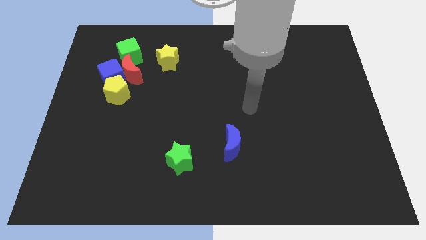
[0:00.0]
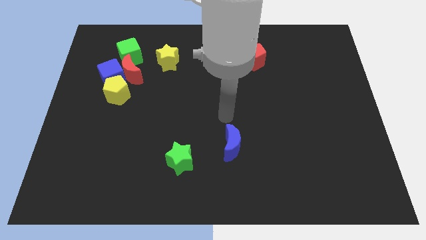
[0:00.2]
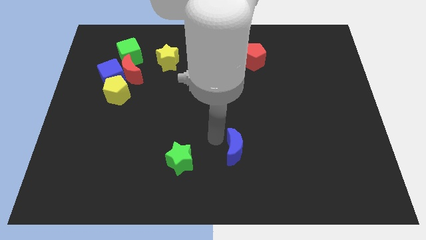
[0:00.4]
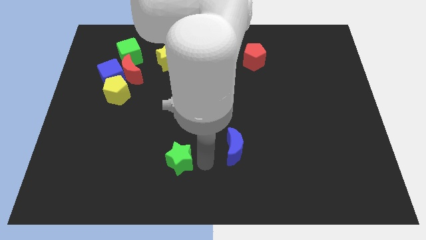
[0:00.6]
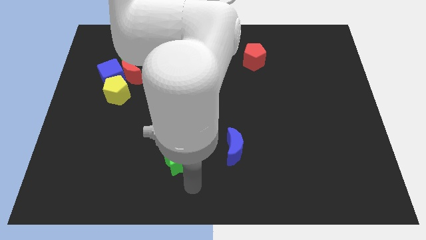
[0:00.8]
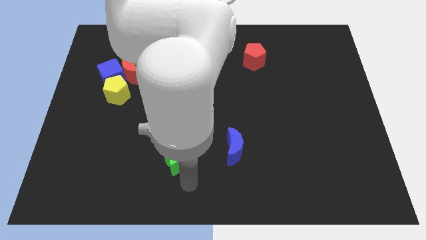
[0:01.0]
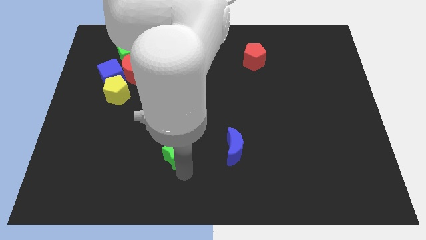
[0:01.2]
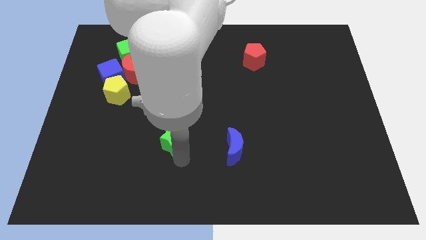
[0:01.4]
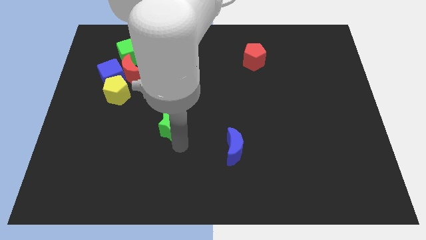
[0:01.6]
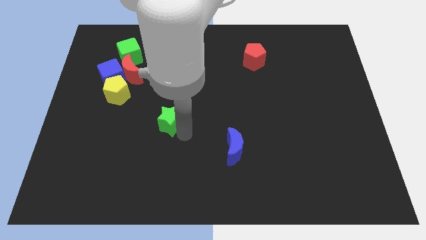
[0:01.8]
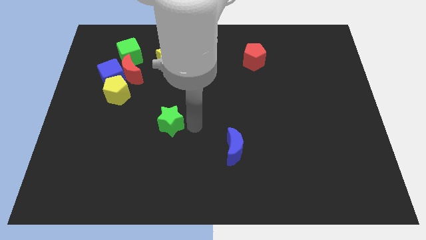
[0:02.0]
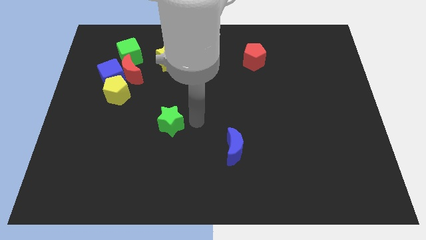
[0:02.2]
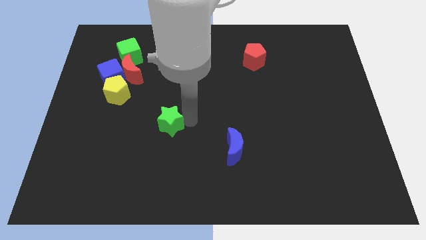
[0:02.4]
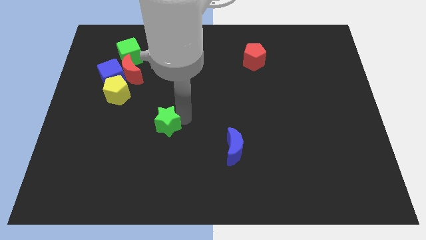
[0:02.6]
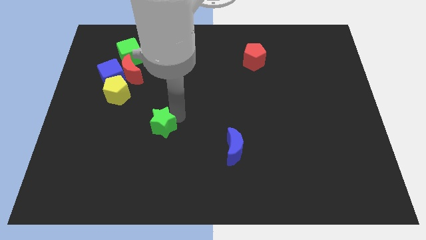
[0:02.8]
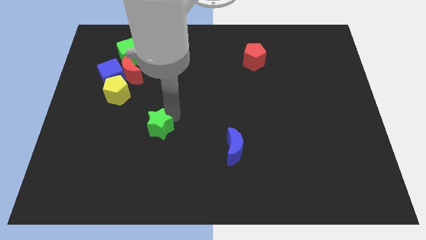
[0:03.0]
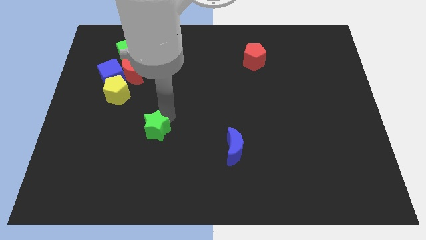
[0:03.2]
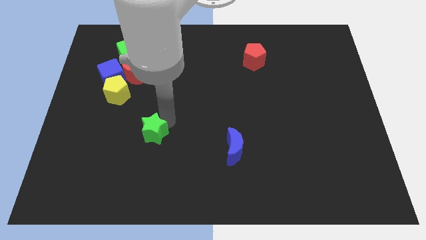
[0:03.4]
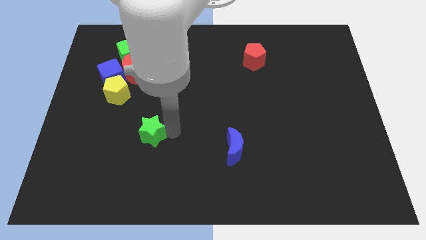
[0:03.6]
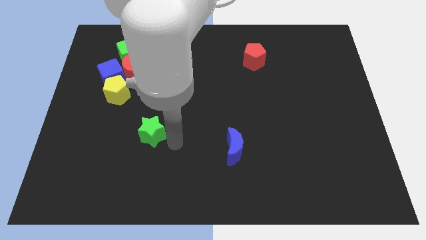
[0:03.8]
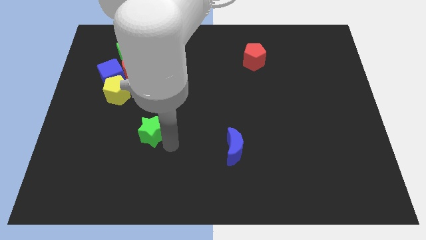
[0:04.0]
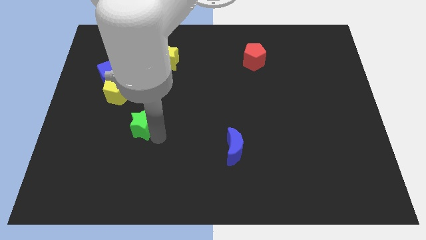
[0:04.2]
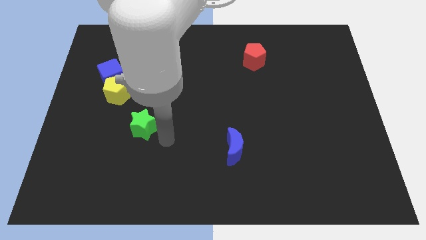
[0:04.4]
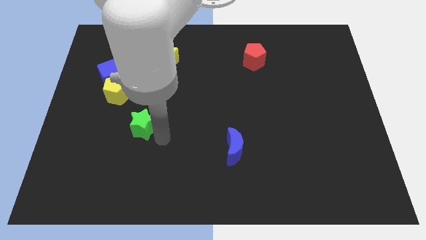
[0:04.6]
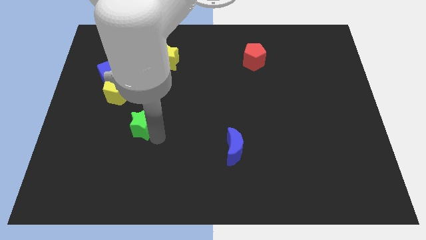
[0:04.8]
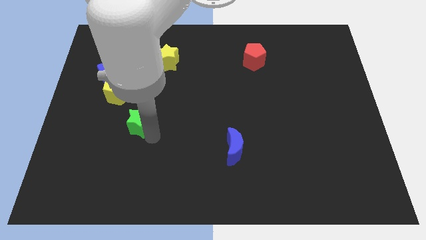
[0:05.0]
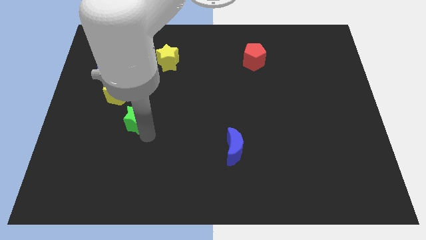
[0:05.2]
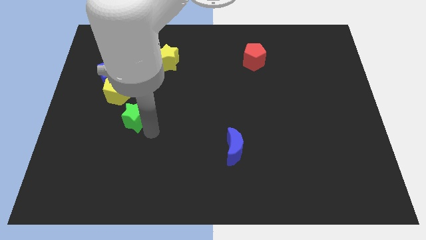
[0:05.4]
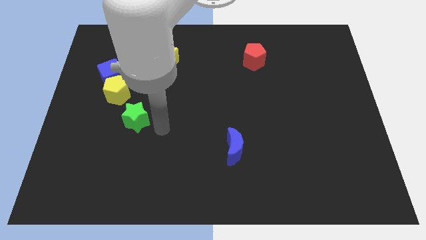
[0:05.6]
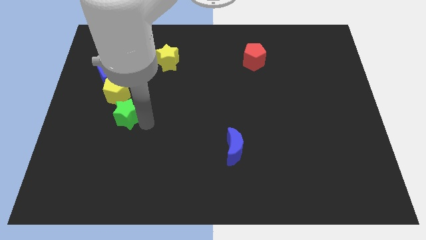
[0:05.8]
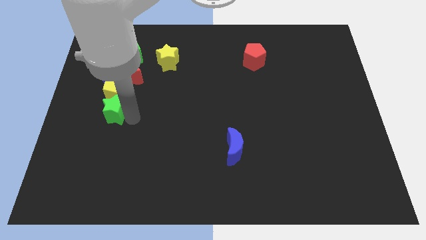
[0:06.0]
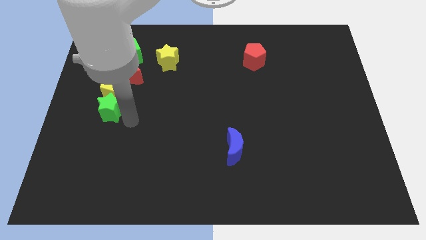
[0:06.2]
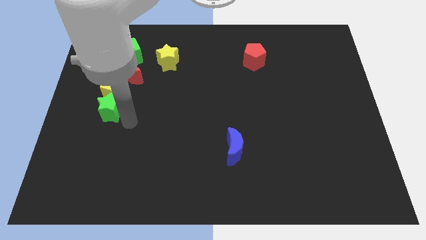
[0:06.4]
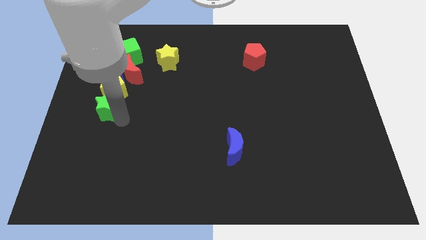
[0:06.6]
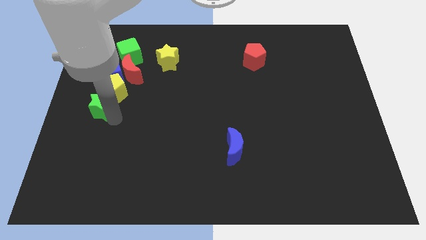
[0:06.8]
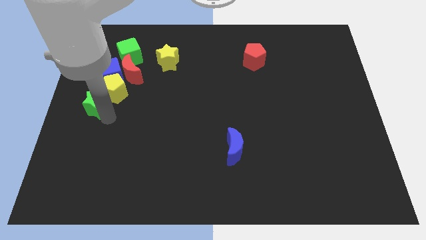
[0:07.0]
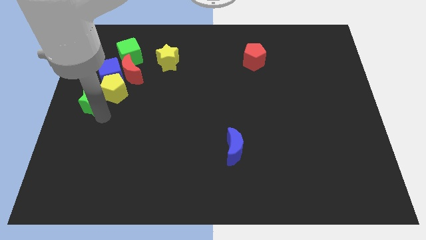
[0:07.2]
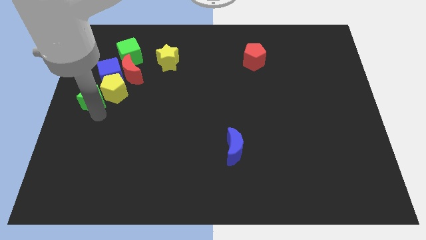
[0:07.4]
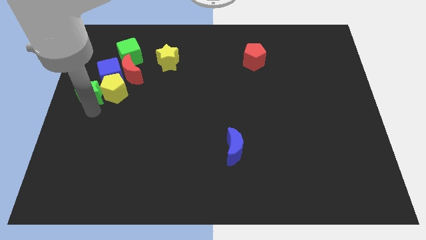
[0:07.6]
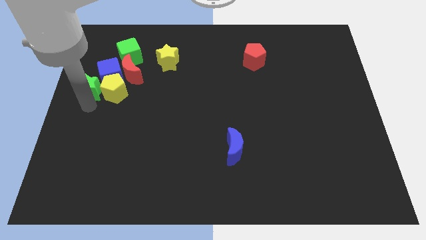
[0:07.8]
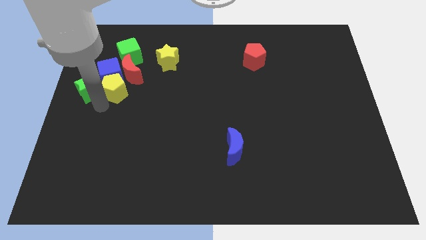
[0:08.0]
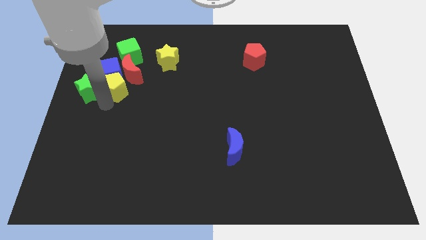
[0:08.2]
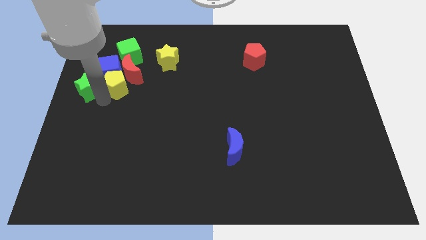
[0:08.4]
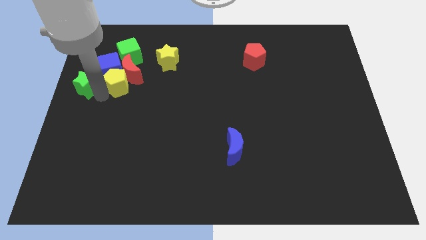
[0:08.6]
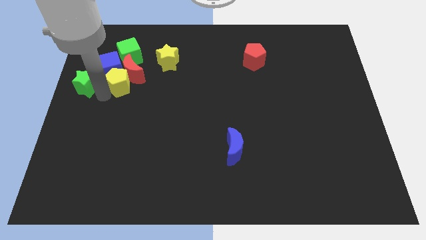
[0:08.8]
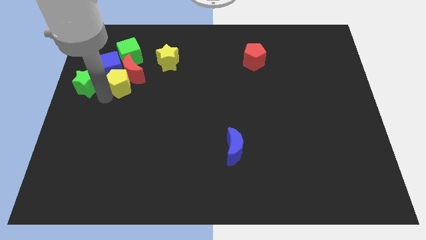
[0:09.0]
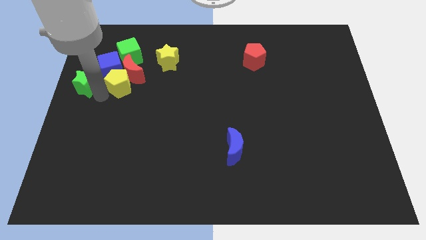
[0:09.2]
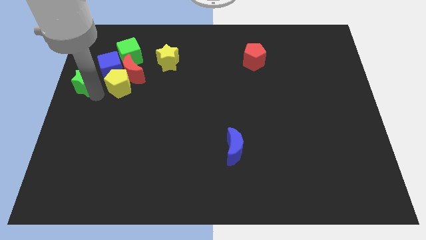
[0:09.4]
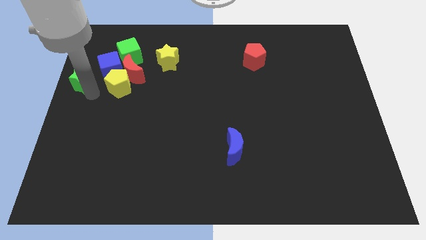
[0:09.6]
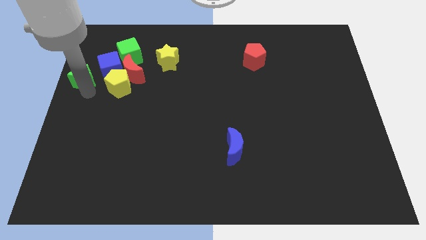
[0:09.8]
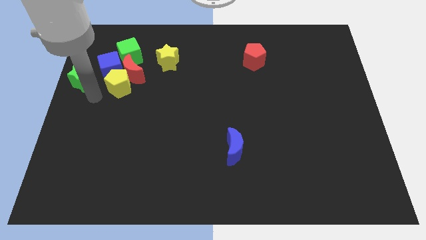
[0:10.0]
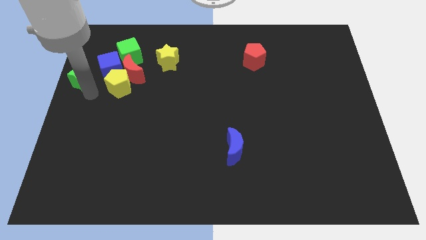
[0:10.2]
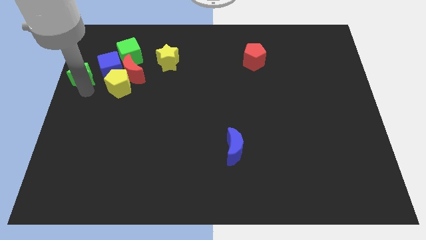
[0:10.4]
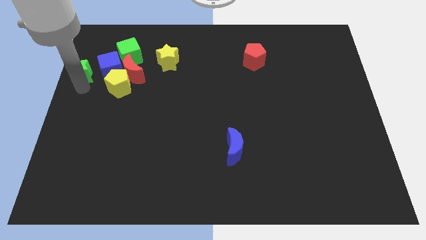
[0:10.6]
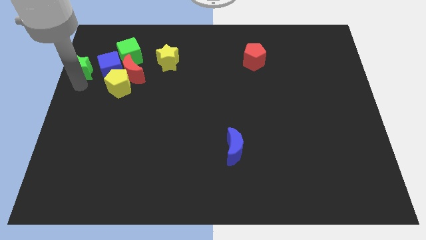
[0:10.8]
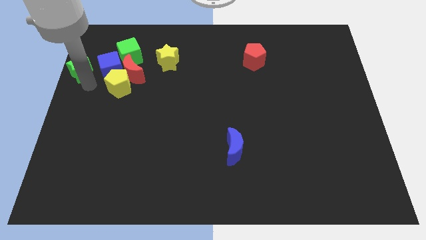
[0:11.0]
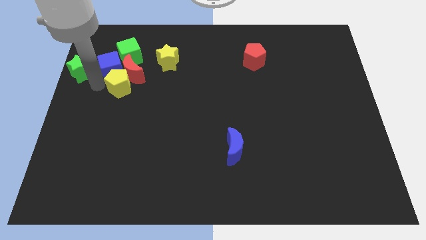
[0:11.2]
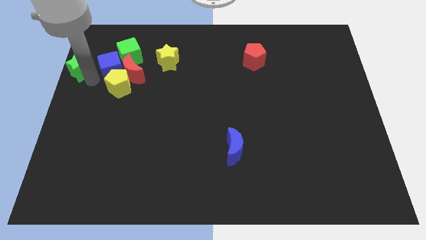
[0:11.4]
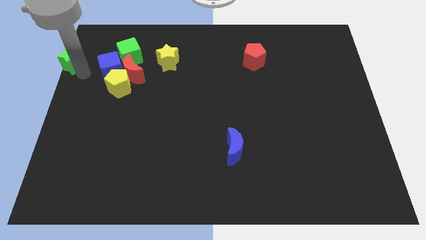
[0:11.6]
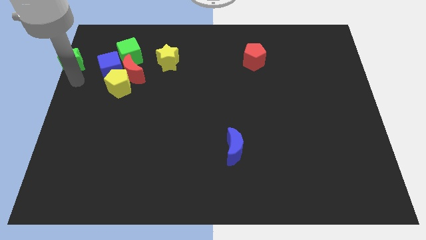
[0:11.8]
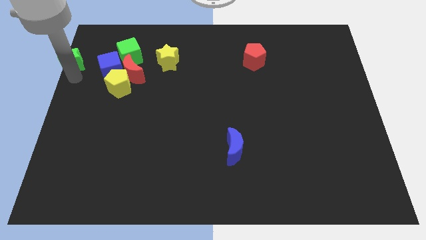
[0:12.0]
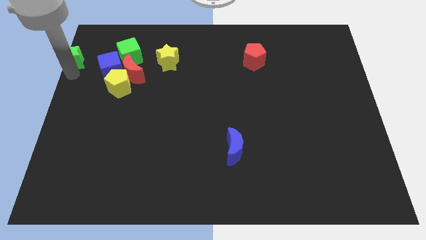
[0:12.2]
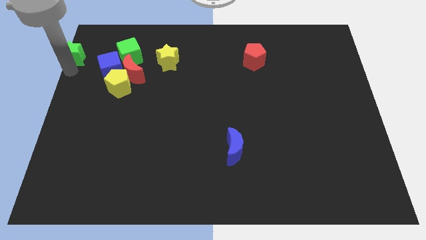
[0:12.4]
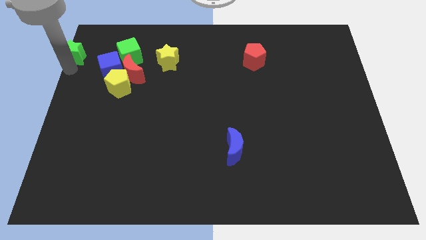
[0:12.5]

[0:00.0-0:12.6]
put the green star to the top left of the board

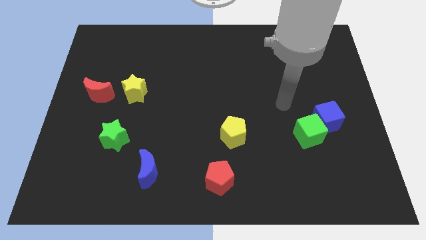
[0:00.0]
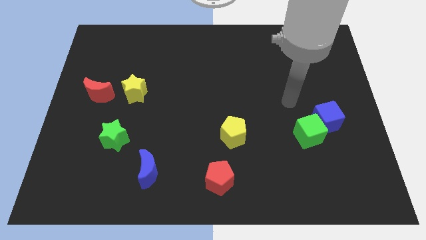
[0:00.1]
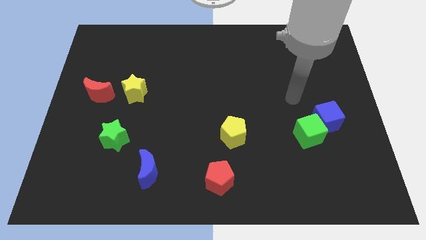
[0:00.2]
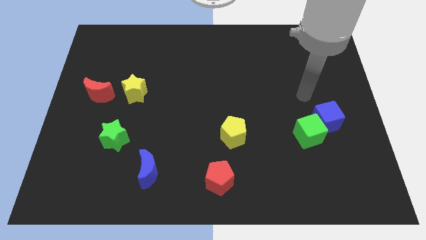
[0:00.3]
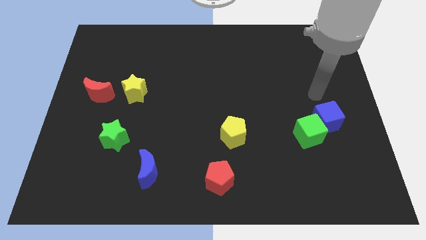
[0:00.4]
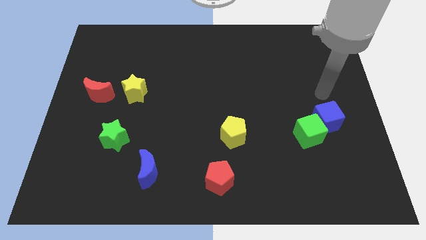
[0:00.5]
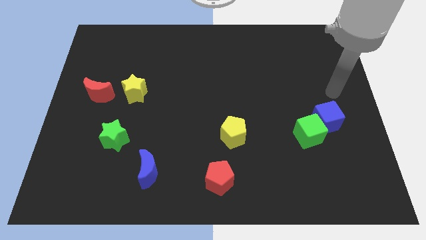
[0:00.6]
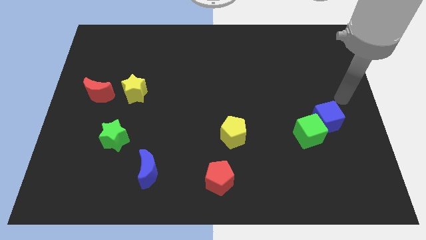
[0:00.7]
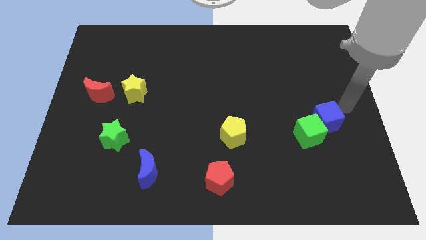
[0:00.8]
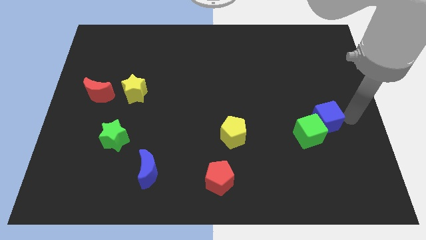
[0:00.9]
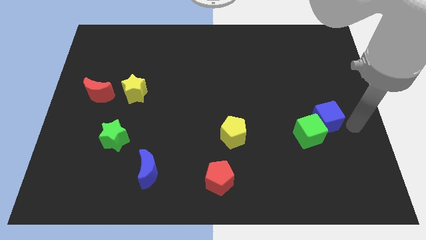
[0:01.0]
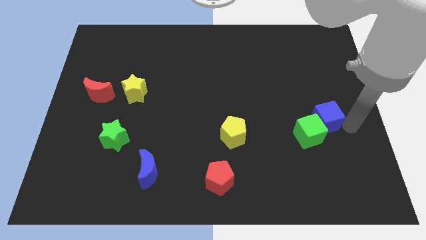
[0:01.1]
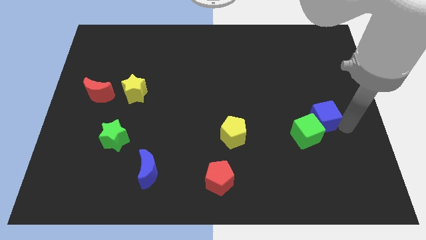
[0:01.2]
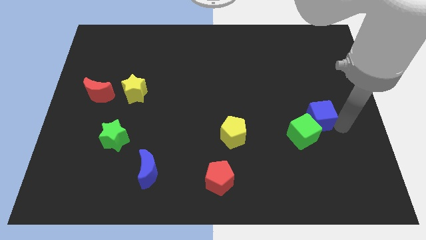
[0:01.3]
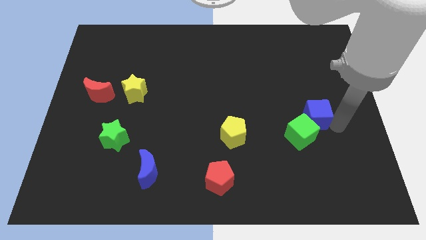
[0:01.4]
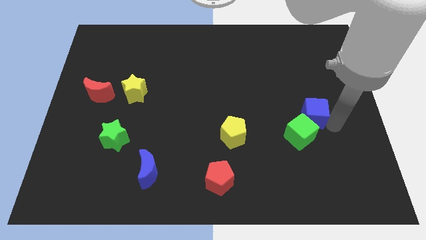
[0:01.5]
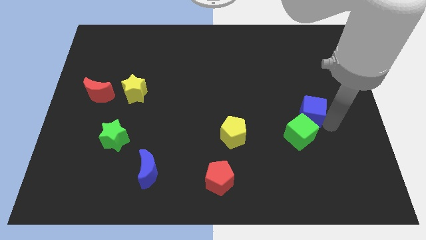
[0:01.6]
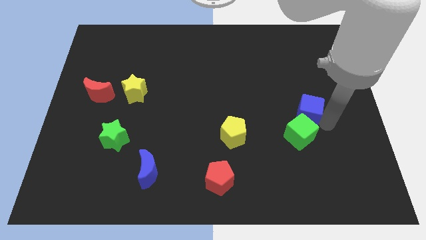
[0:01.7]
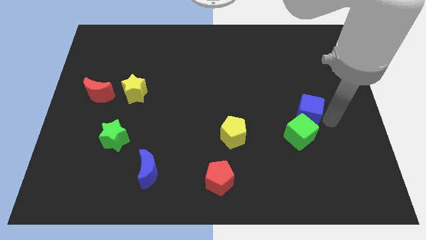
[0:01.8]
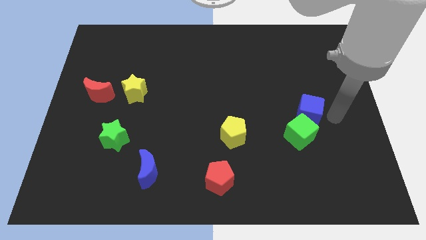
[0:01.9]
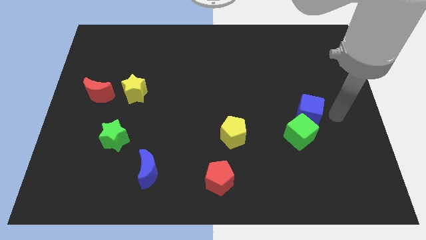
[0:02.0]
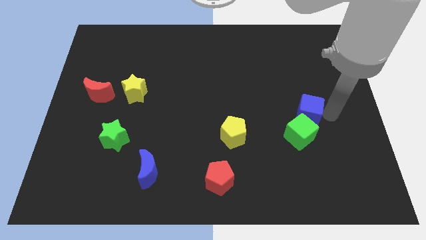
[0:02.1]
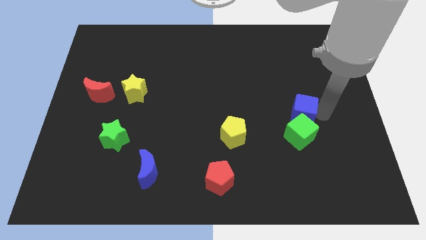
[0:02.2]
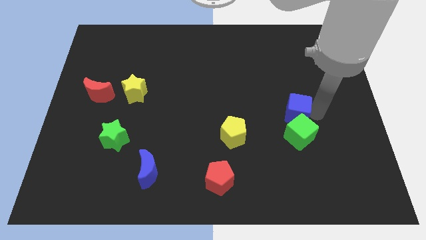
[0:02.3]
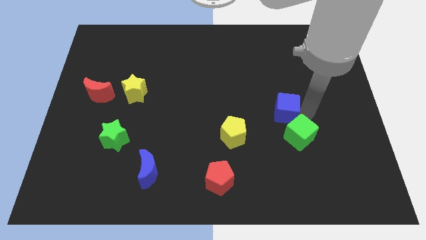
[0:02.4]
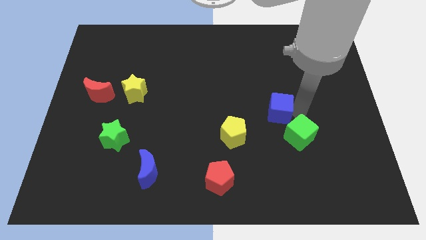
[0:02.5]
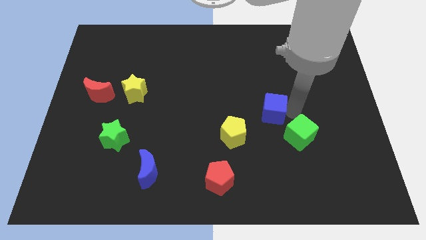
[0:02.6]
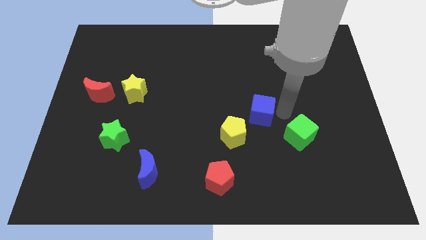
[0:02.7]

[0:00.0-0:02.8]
move the blue cube to the center of the board
